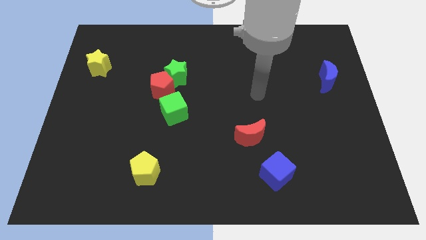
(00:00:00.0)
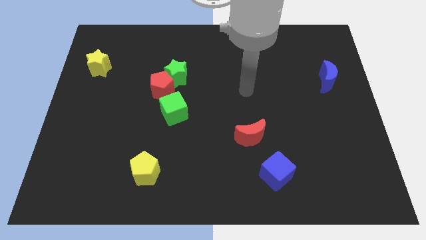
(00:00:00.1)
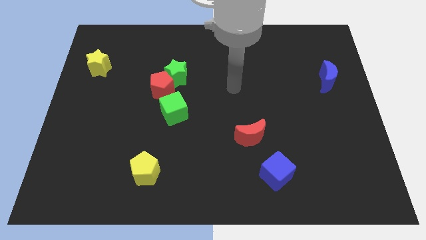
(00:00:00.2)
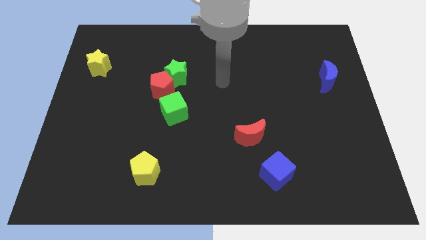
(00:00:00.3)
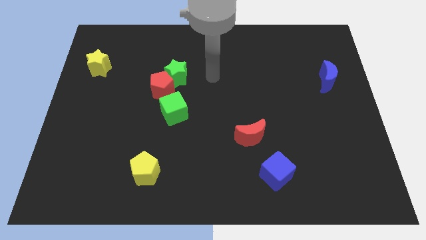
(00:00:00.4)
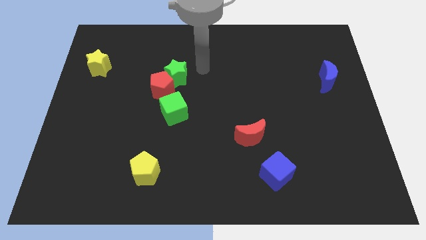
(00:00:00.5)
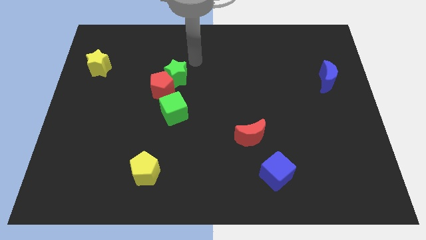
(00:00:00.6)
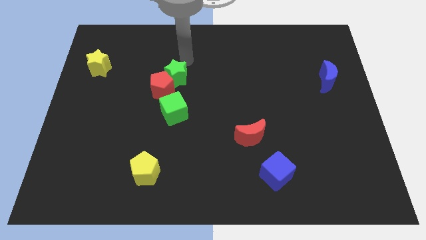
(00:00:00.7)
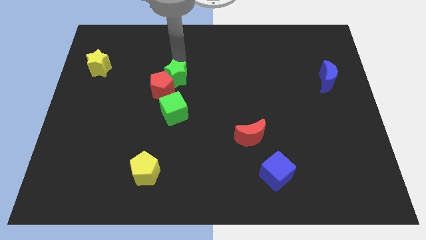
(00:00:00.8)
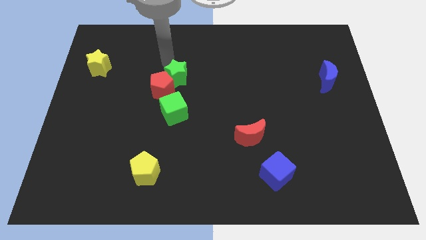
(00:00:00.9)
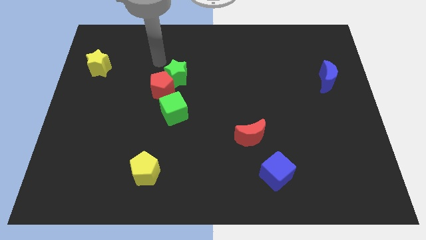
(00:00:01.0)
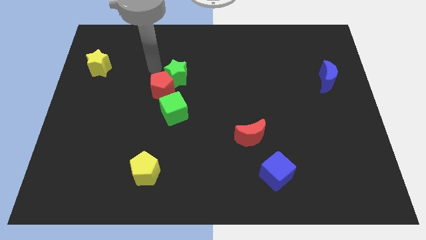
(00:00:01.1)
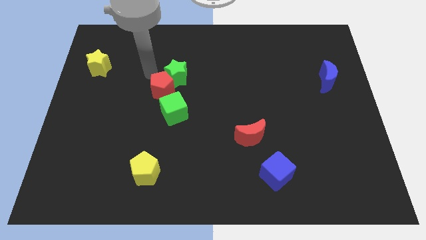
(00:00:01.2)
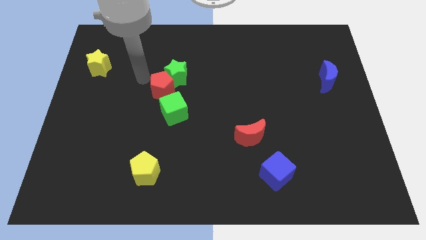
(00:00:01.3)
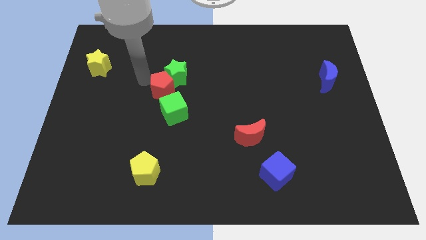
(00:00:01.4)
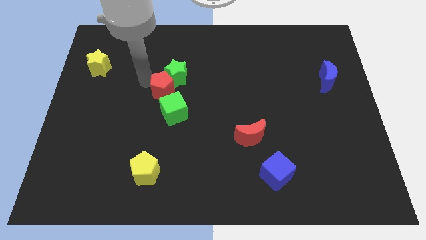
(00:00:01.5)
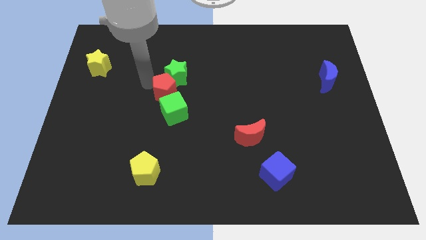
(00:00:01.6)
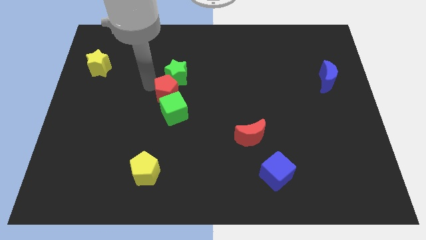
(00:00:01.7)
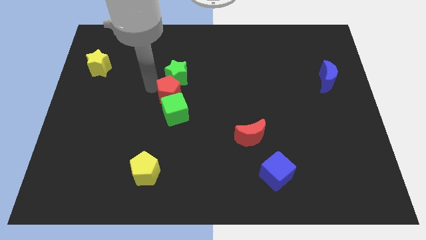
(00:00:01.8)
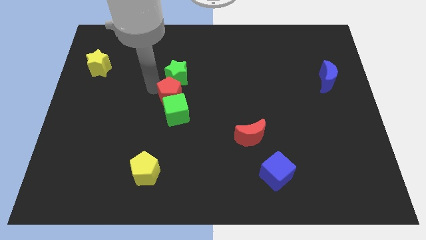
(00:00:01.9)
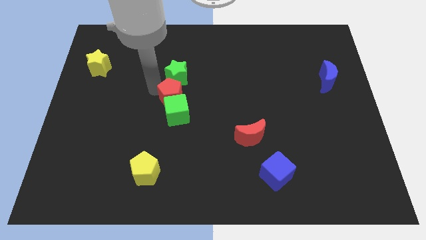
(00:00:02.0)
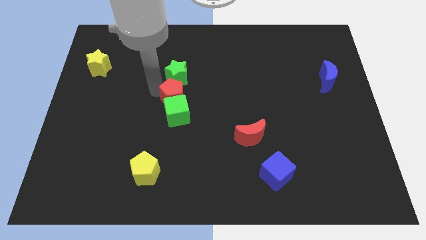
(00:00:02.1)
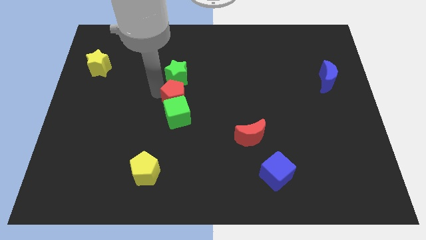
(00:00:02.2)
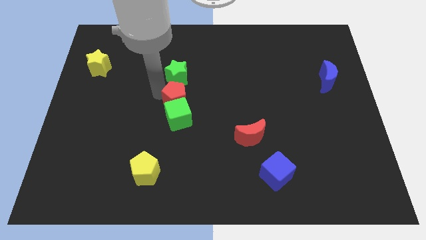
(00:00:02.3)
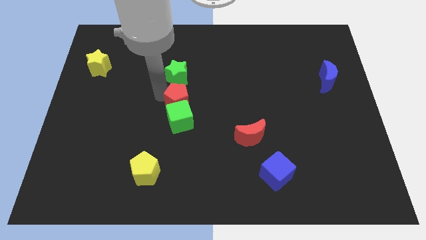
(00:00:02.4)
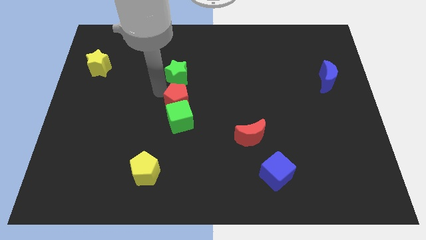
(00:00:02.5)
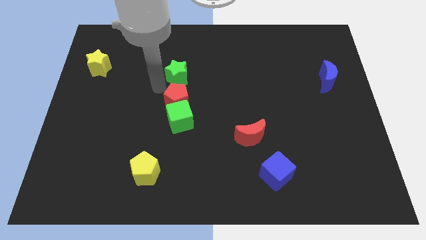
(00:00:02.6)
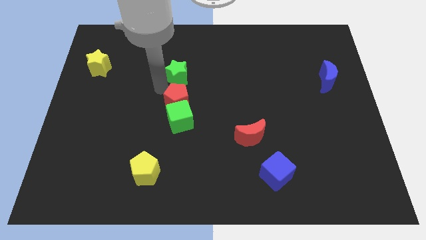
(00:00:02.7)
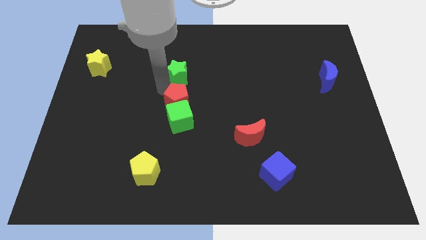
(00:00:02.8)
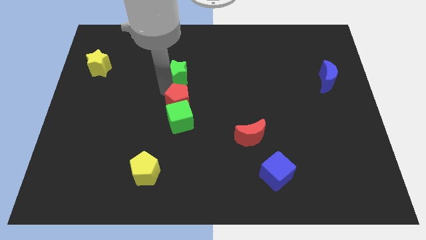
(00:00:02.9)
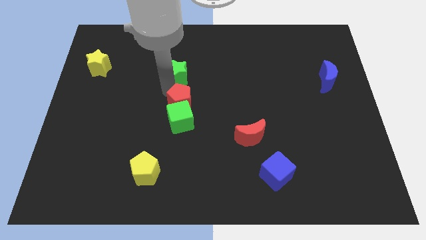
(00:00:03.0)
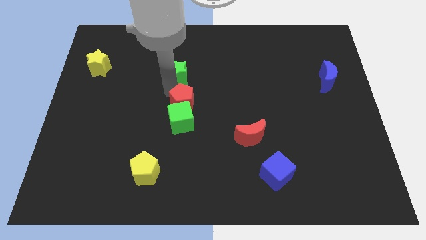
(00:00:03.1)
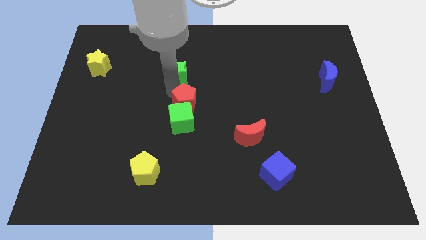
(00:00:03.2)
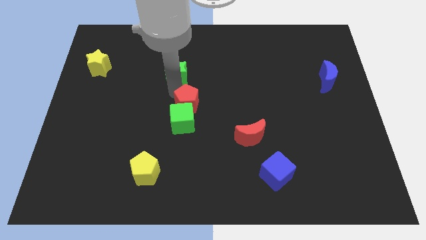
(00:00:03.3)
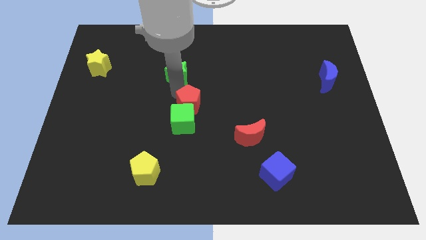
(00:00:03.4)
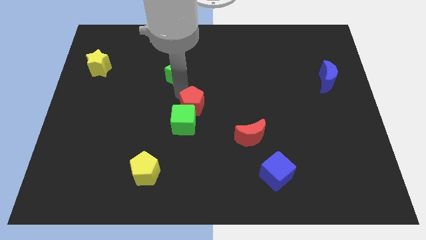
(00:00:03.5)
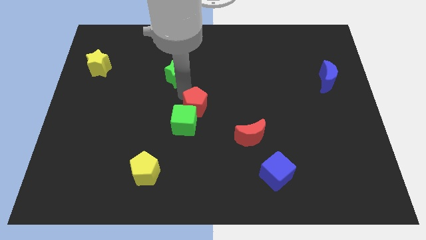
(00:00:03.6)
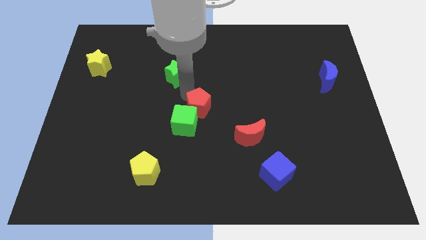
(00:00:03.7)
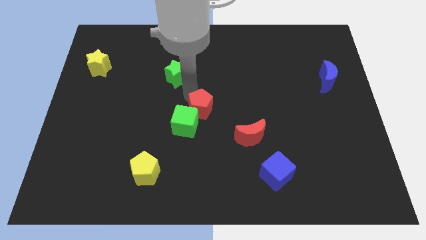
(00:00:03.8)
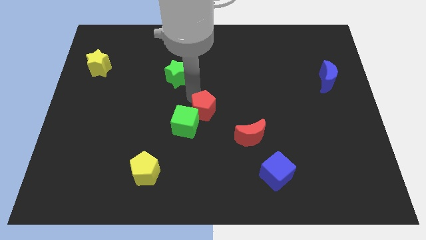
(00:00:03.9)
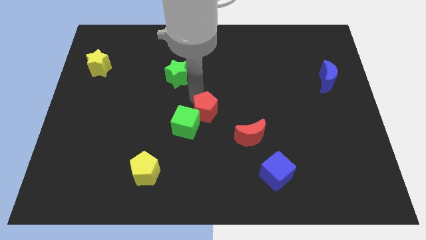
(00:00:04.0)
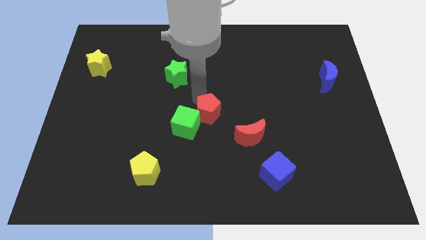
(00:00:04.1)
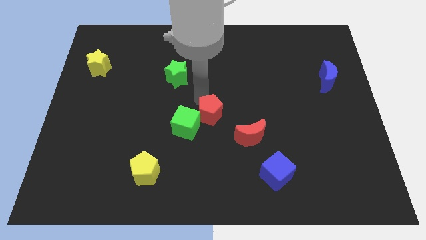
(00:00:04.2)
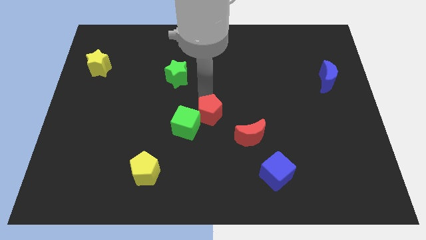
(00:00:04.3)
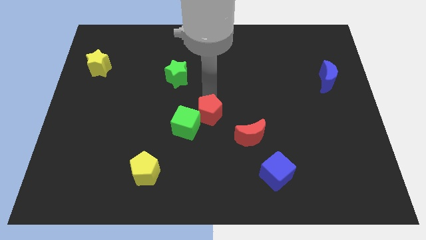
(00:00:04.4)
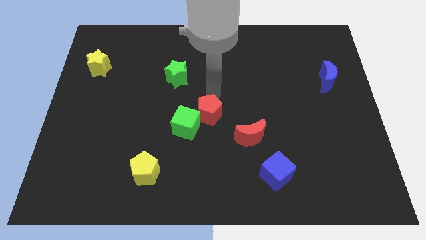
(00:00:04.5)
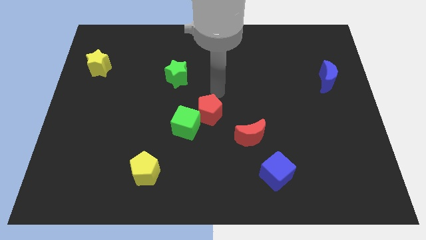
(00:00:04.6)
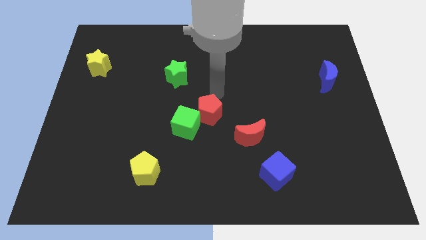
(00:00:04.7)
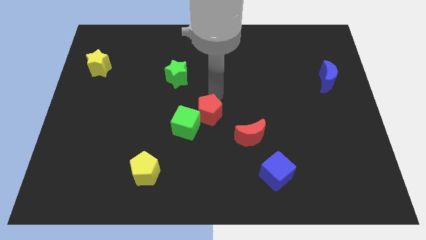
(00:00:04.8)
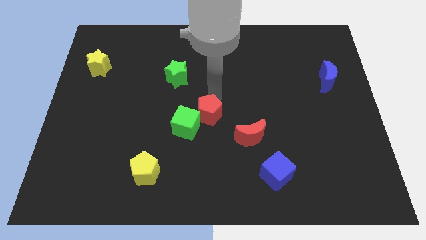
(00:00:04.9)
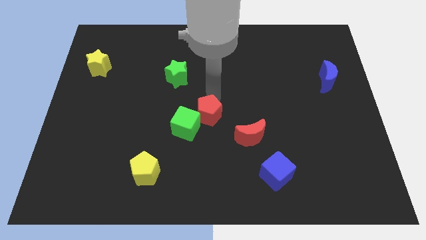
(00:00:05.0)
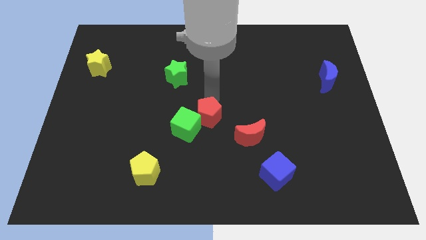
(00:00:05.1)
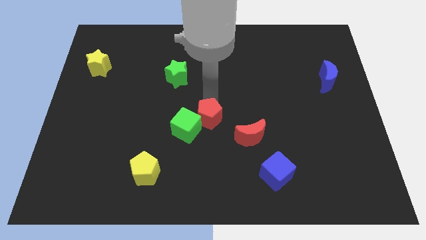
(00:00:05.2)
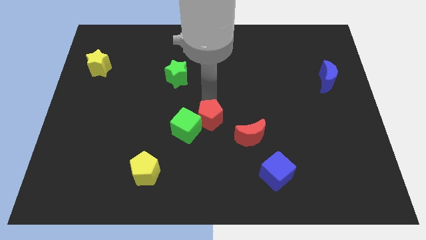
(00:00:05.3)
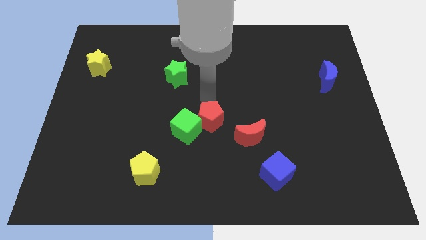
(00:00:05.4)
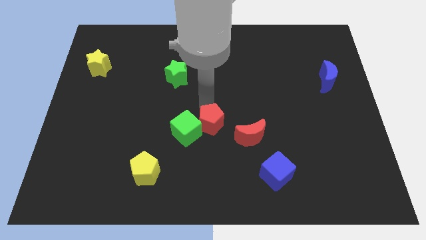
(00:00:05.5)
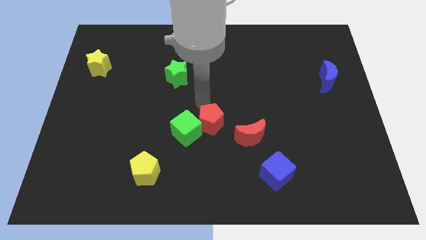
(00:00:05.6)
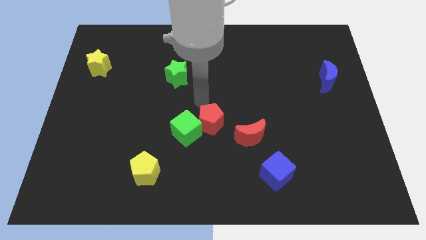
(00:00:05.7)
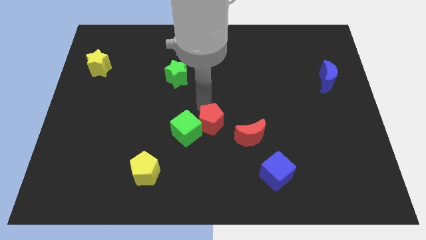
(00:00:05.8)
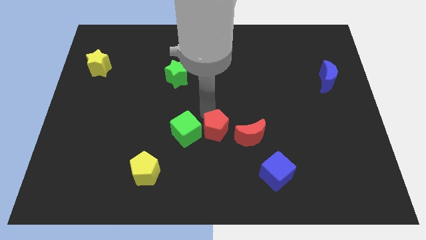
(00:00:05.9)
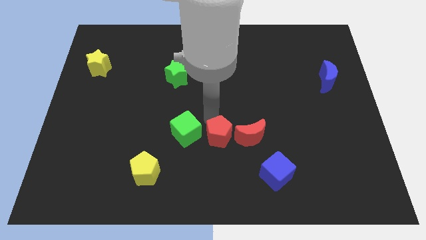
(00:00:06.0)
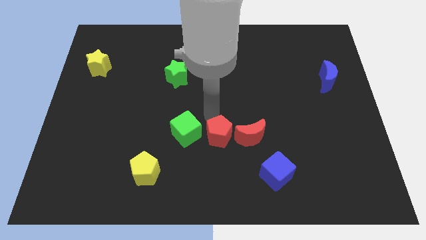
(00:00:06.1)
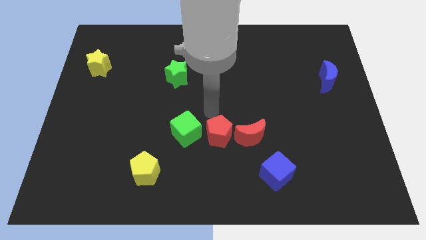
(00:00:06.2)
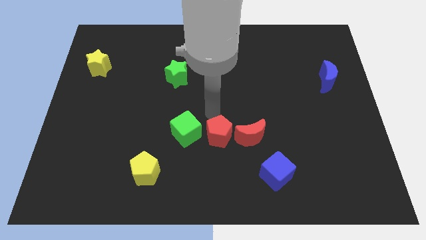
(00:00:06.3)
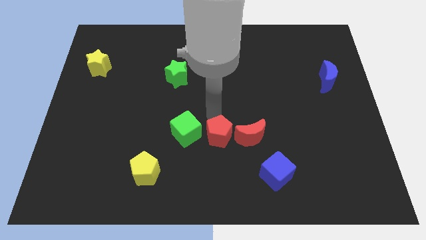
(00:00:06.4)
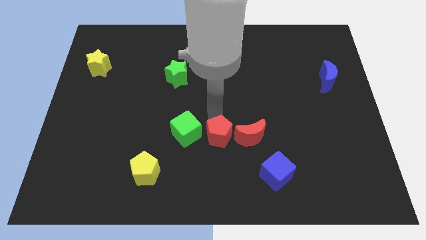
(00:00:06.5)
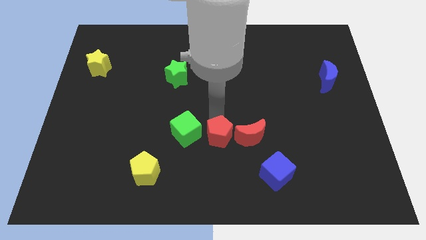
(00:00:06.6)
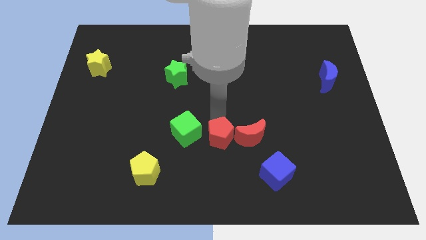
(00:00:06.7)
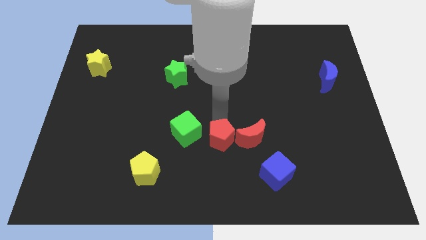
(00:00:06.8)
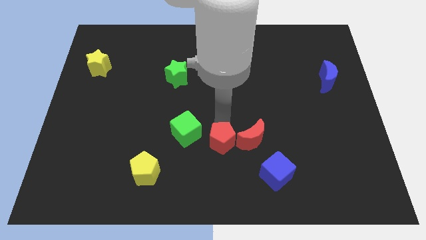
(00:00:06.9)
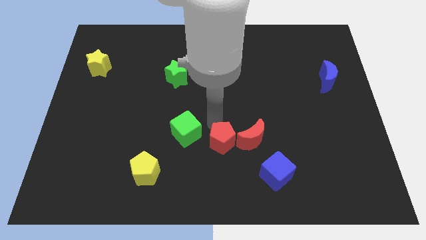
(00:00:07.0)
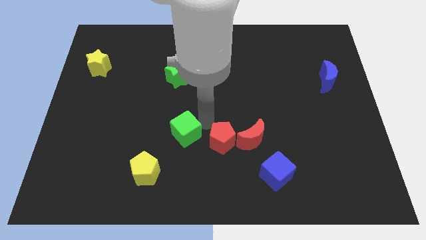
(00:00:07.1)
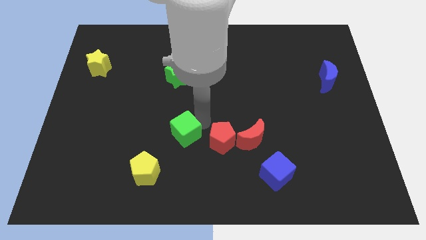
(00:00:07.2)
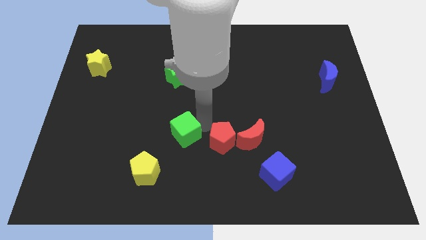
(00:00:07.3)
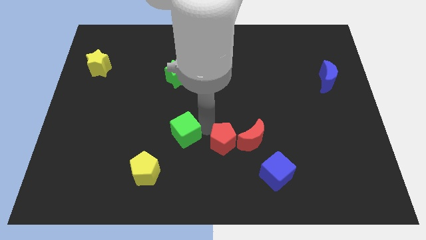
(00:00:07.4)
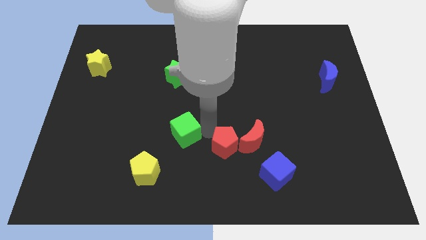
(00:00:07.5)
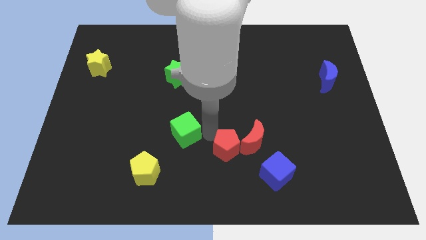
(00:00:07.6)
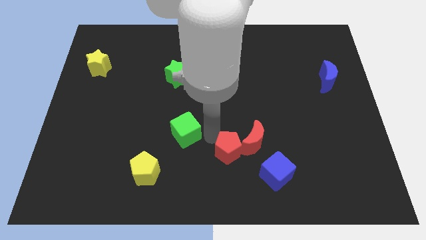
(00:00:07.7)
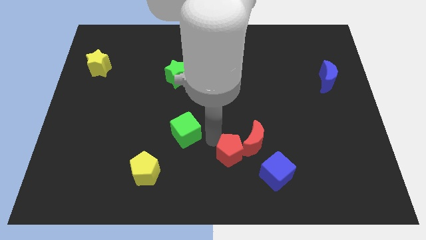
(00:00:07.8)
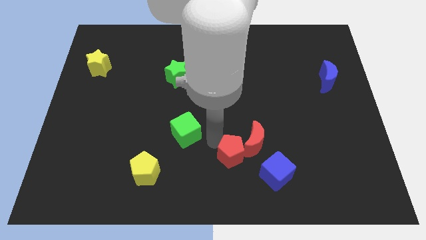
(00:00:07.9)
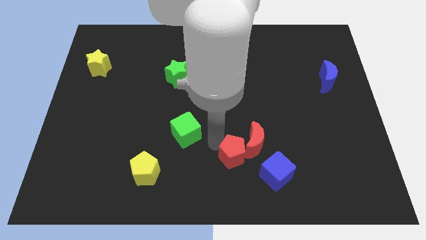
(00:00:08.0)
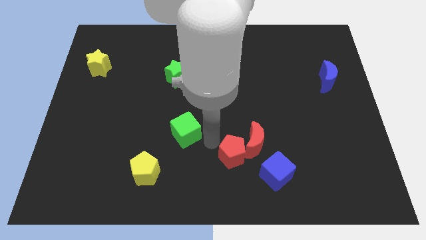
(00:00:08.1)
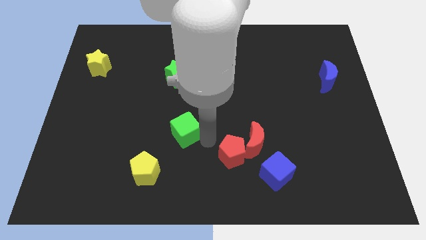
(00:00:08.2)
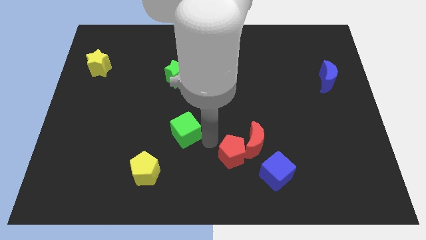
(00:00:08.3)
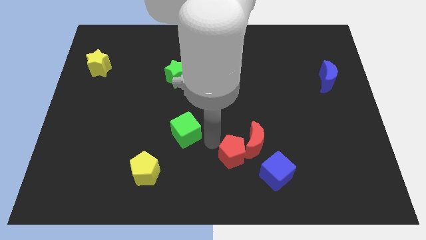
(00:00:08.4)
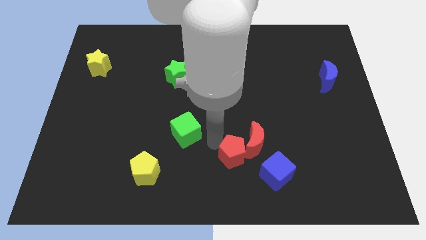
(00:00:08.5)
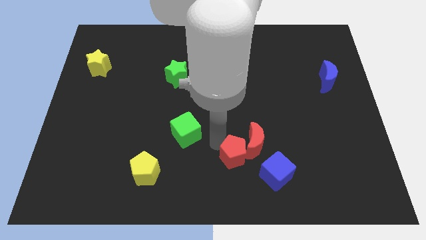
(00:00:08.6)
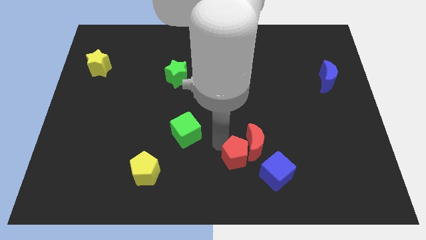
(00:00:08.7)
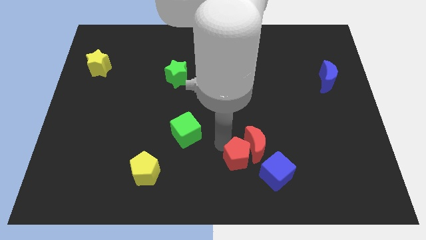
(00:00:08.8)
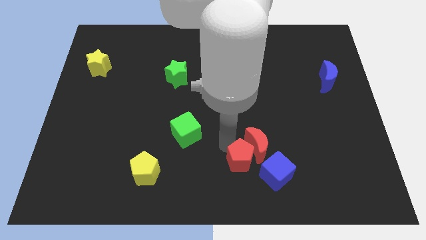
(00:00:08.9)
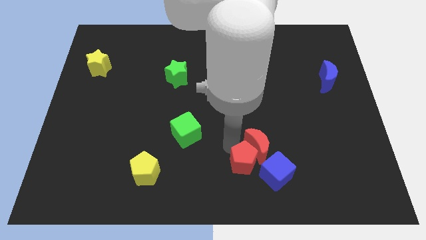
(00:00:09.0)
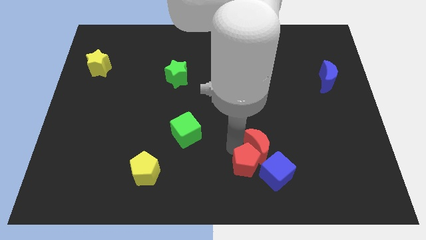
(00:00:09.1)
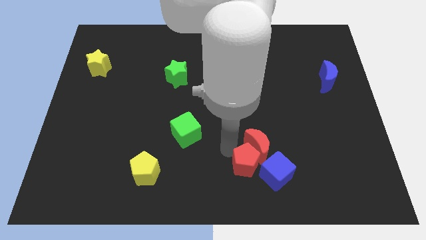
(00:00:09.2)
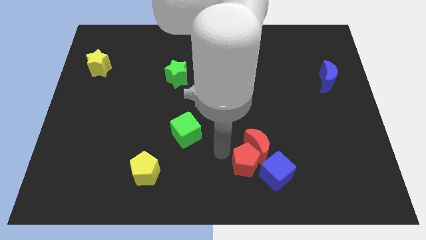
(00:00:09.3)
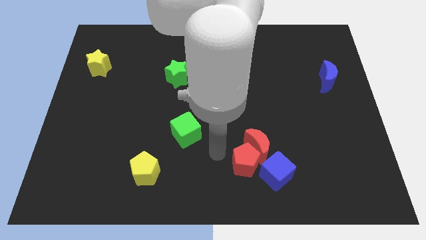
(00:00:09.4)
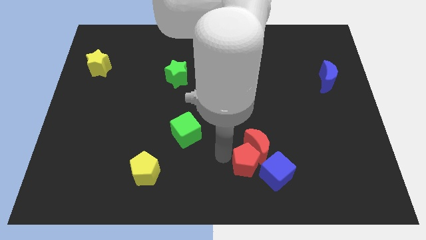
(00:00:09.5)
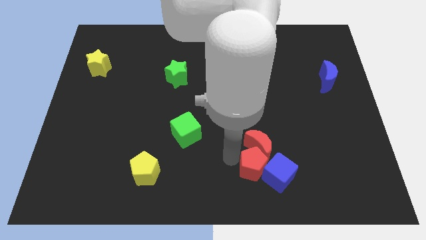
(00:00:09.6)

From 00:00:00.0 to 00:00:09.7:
move the red pentagon towards the blue cube
